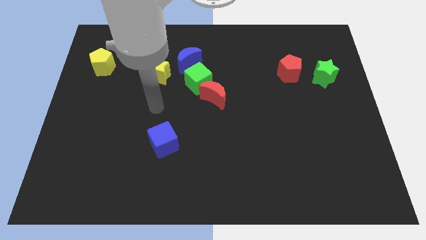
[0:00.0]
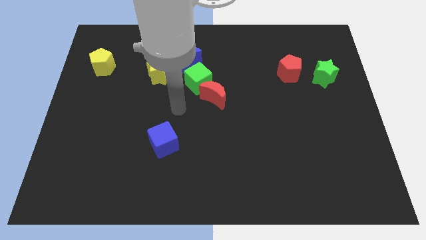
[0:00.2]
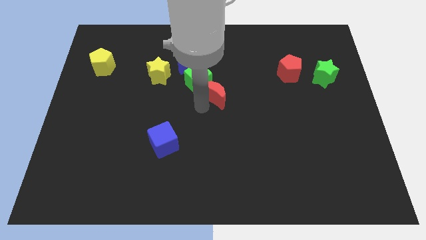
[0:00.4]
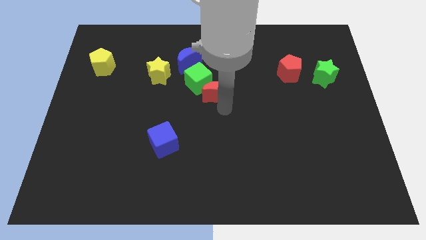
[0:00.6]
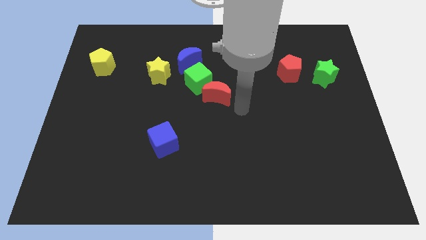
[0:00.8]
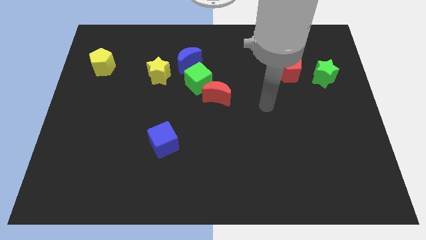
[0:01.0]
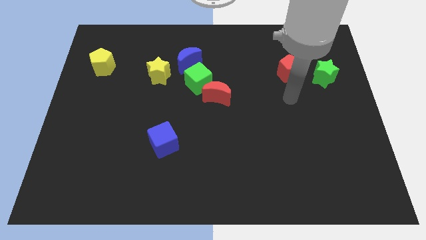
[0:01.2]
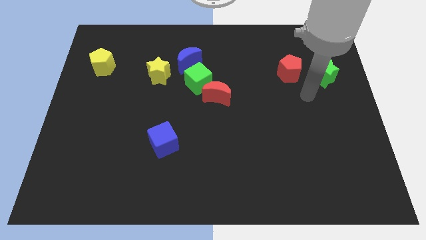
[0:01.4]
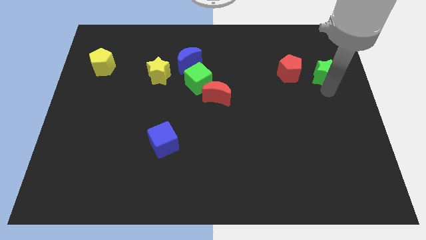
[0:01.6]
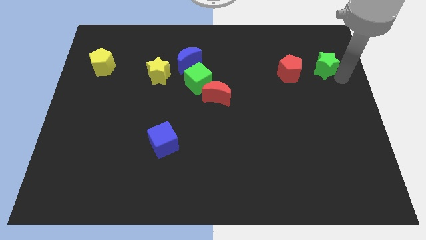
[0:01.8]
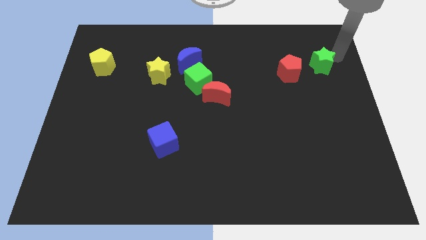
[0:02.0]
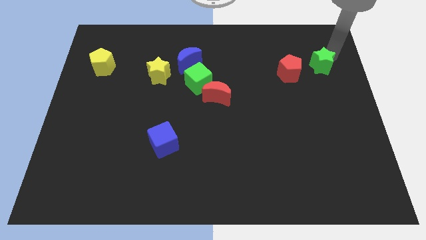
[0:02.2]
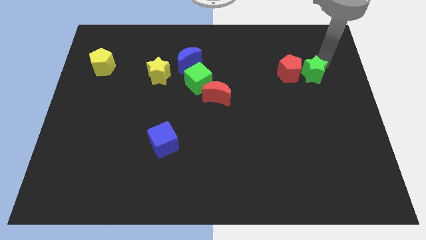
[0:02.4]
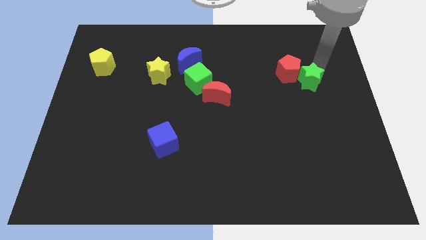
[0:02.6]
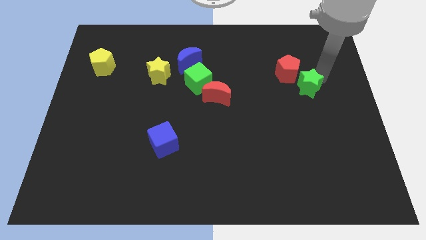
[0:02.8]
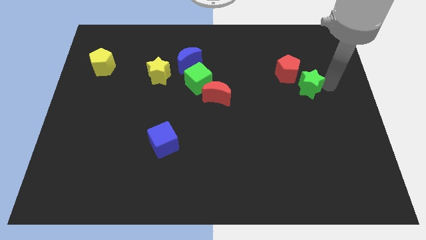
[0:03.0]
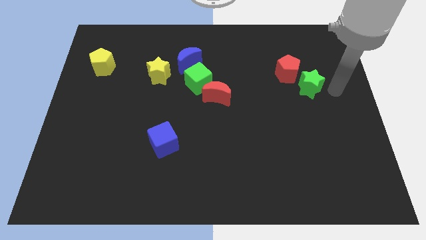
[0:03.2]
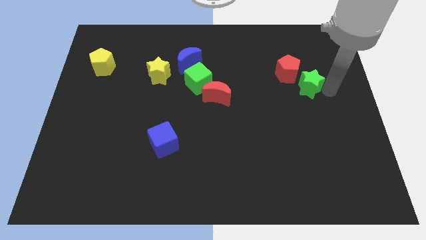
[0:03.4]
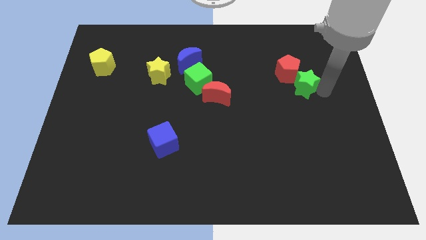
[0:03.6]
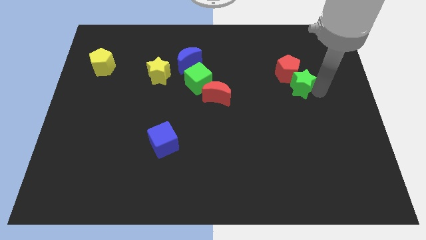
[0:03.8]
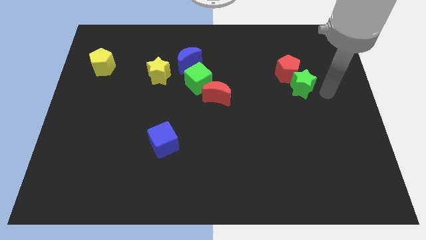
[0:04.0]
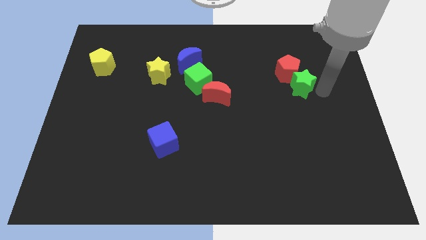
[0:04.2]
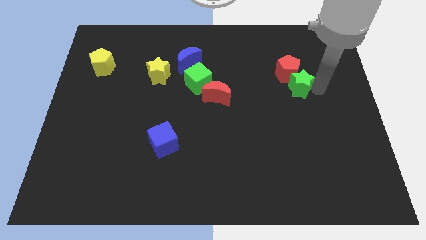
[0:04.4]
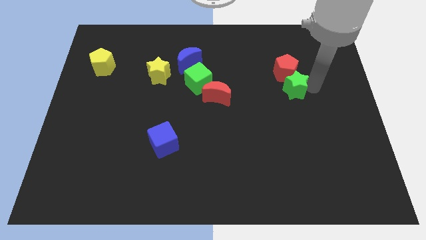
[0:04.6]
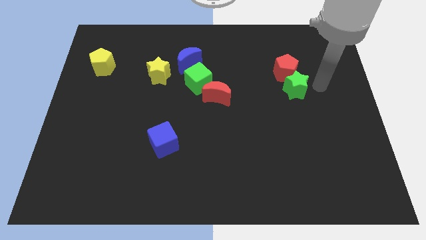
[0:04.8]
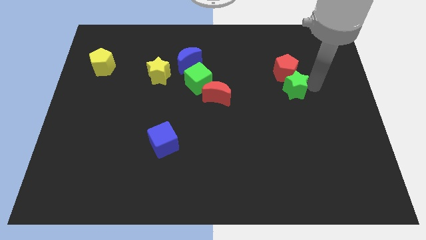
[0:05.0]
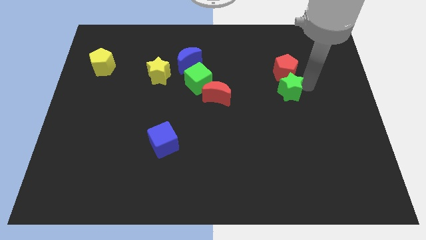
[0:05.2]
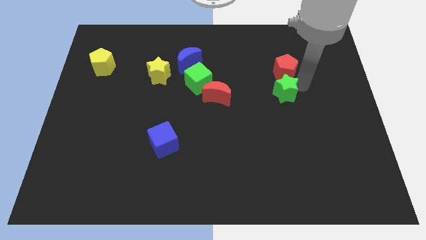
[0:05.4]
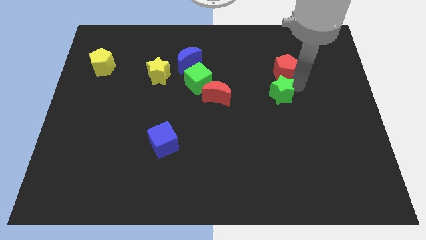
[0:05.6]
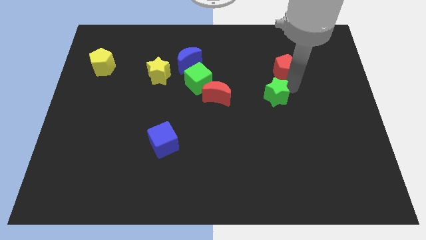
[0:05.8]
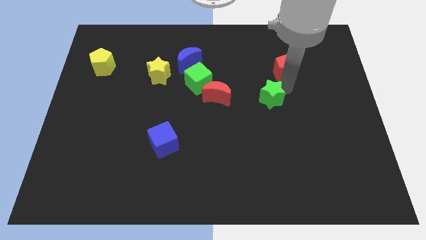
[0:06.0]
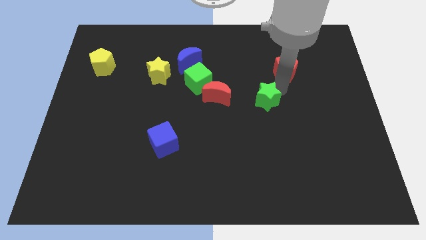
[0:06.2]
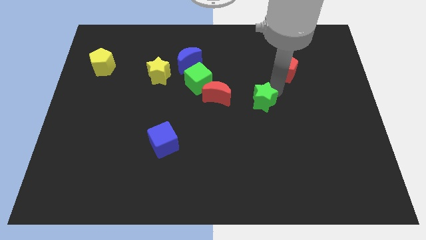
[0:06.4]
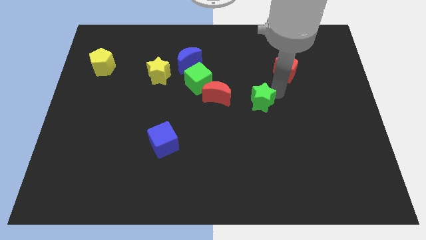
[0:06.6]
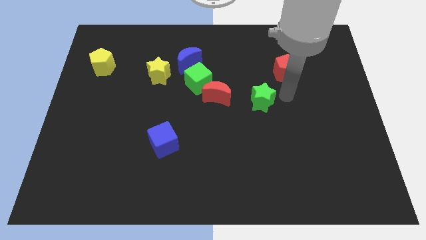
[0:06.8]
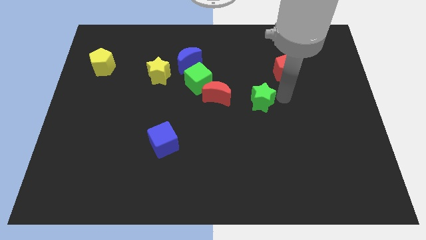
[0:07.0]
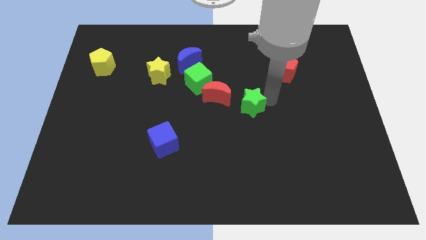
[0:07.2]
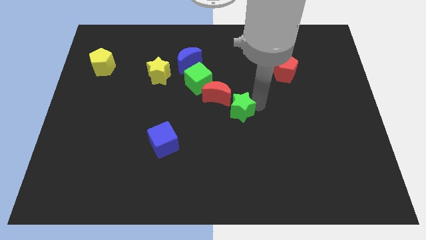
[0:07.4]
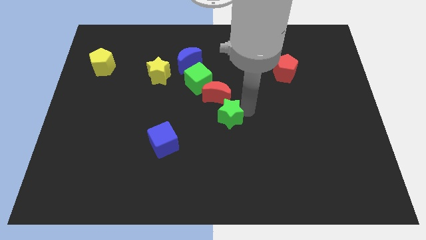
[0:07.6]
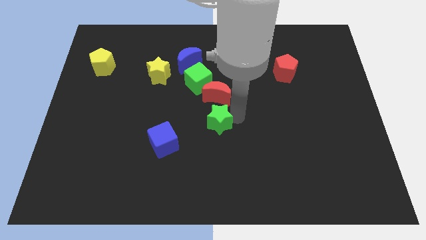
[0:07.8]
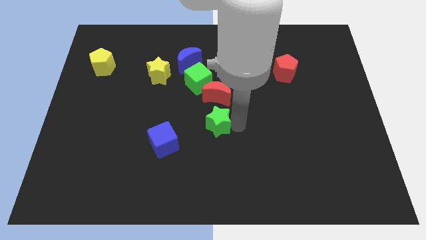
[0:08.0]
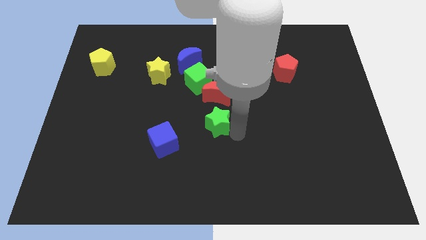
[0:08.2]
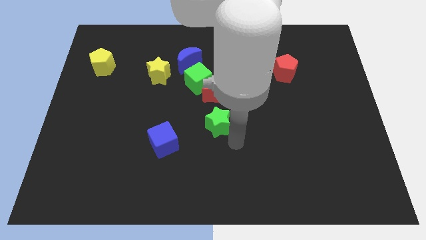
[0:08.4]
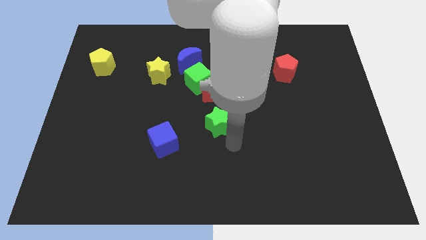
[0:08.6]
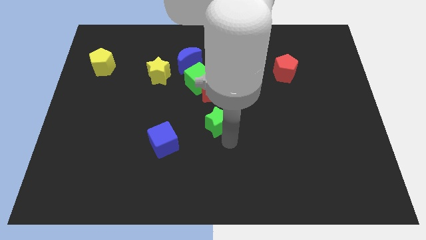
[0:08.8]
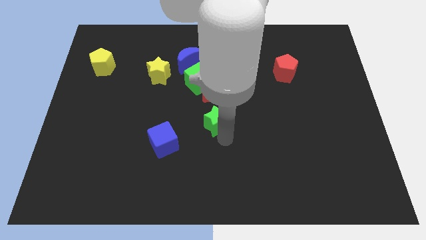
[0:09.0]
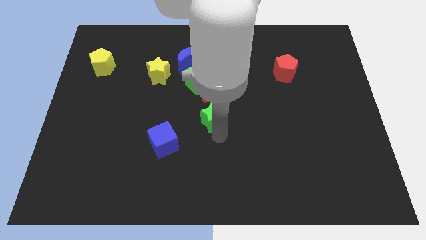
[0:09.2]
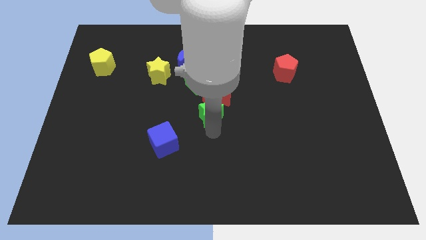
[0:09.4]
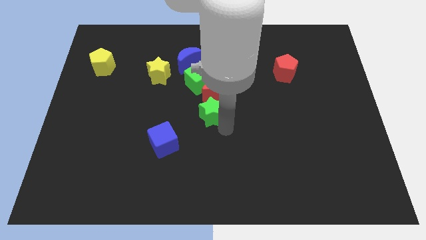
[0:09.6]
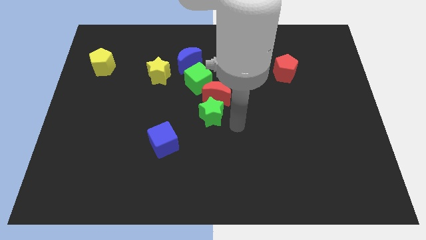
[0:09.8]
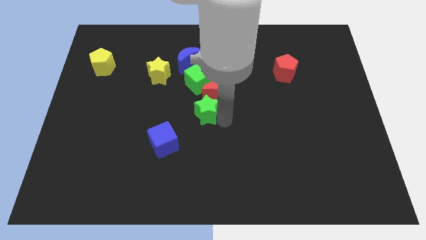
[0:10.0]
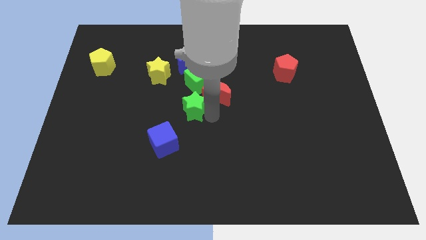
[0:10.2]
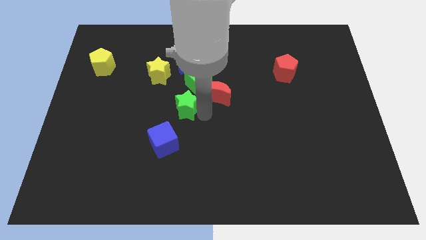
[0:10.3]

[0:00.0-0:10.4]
move the green star to the bottom left of the green cube

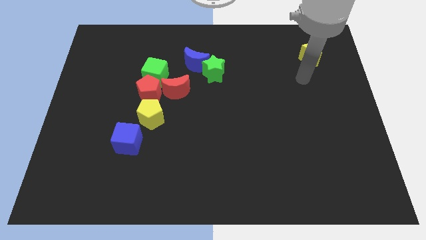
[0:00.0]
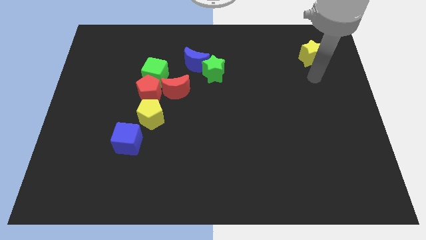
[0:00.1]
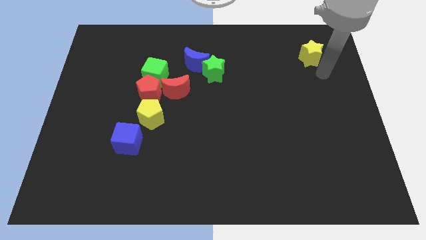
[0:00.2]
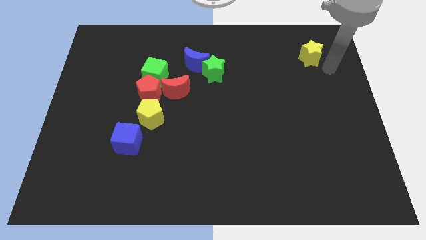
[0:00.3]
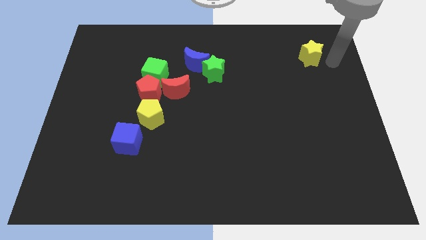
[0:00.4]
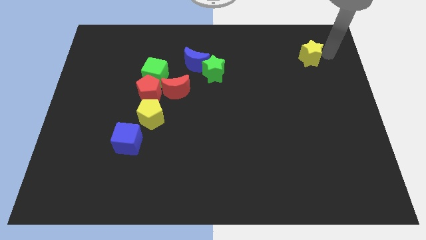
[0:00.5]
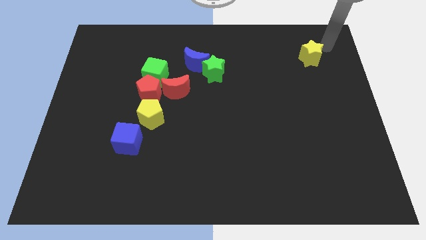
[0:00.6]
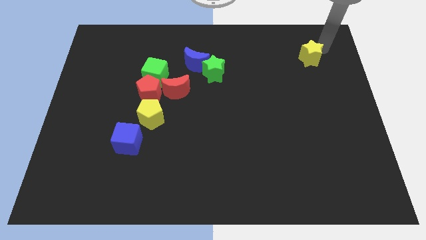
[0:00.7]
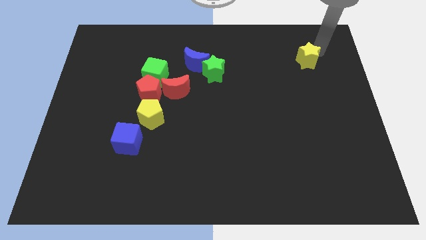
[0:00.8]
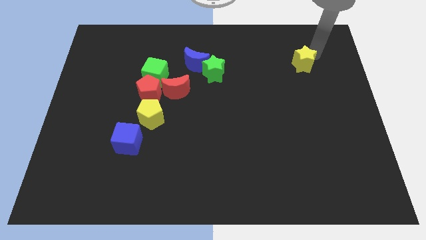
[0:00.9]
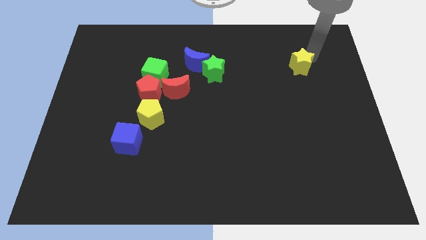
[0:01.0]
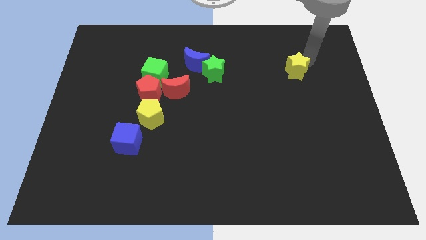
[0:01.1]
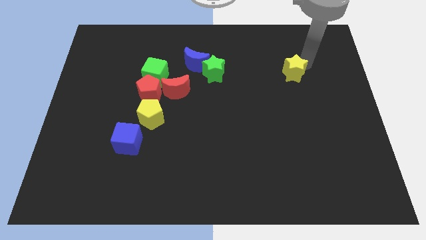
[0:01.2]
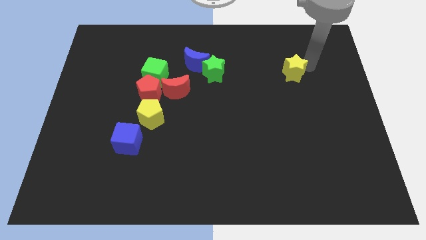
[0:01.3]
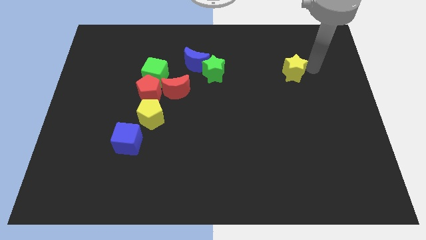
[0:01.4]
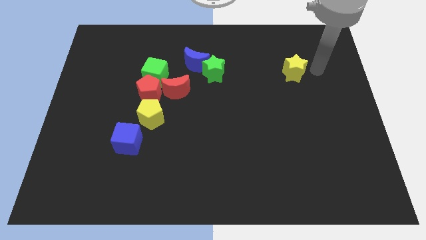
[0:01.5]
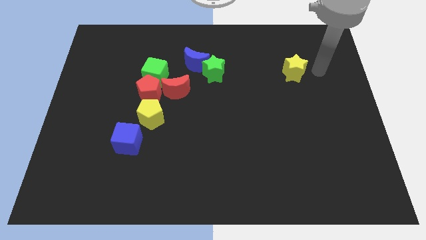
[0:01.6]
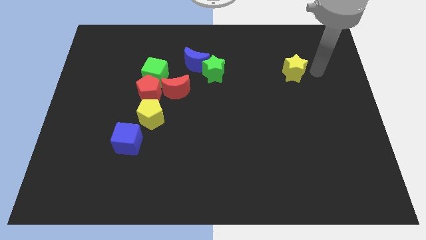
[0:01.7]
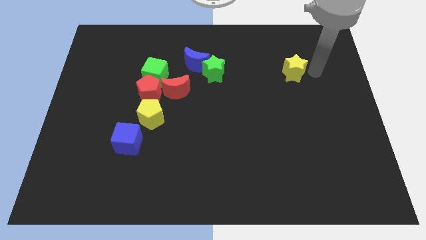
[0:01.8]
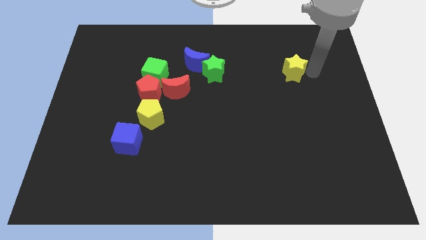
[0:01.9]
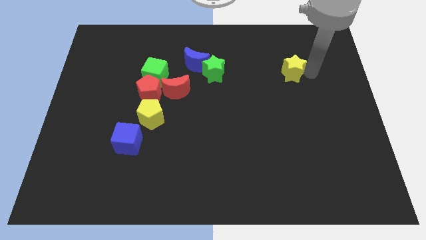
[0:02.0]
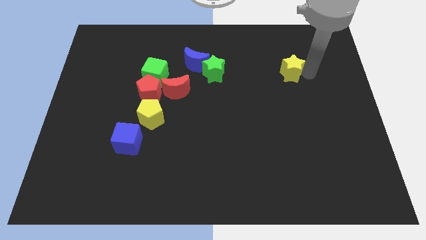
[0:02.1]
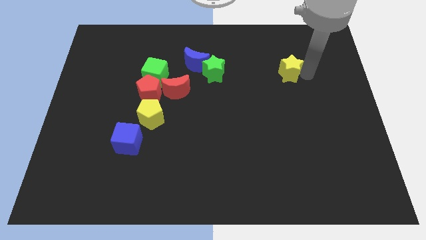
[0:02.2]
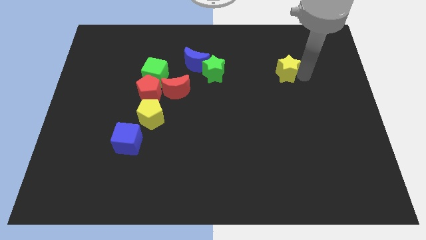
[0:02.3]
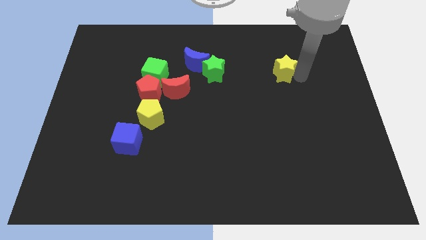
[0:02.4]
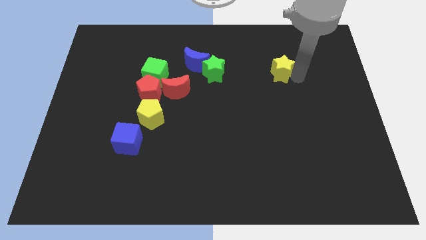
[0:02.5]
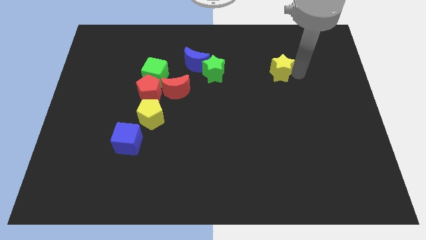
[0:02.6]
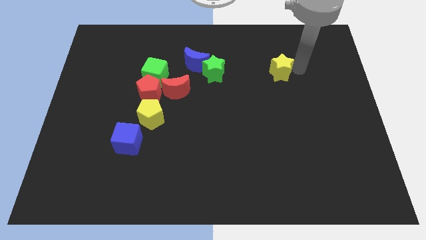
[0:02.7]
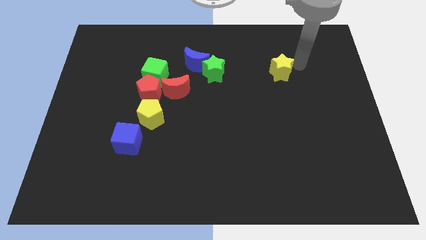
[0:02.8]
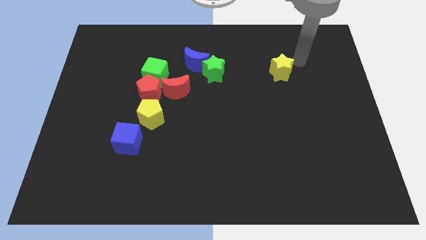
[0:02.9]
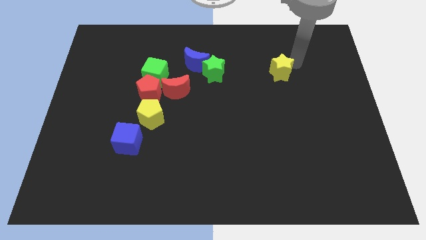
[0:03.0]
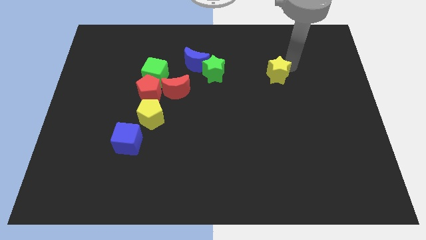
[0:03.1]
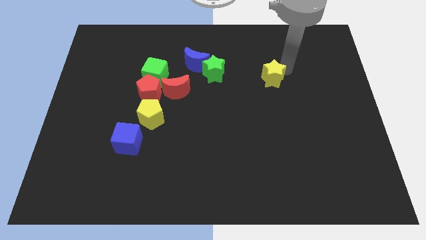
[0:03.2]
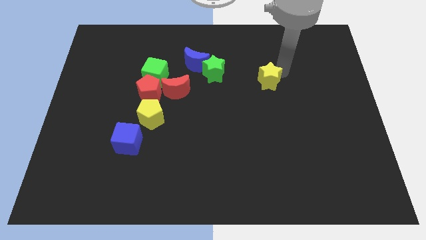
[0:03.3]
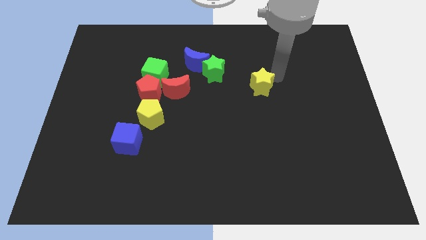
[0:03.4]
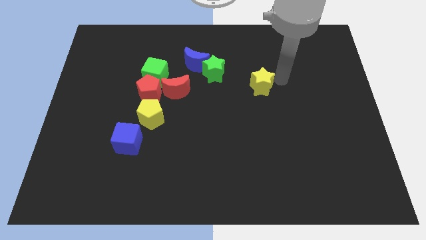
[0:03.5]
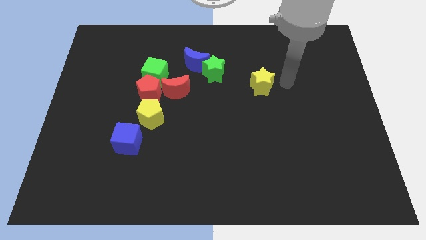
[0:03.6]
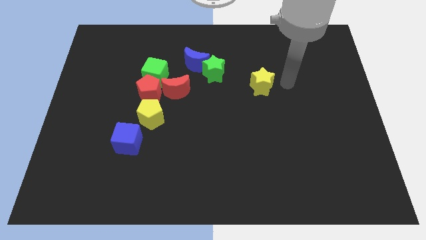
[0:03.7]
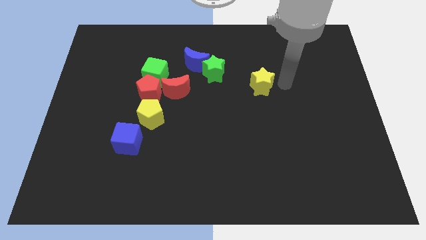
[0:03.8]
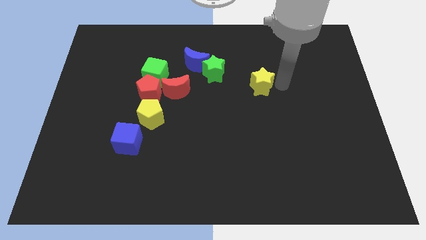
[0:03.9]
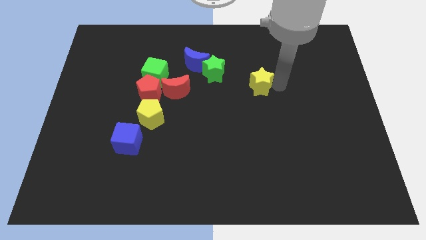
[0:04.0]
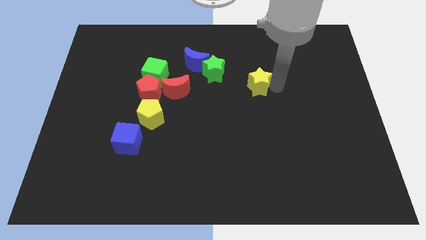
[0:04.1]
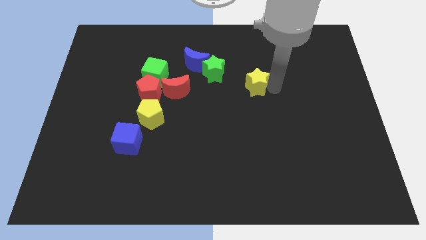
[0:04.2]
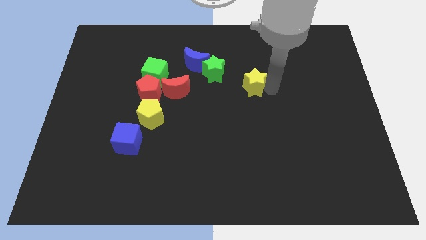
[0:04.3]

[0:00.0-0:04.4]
move the yellow star diagonally down and to the right of the green star
